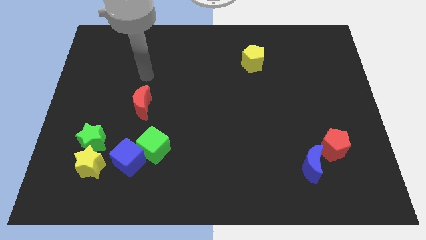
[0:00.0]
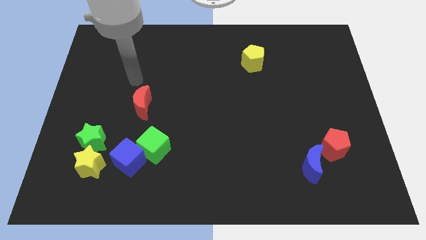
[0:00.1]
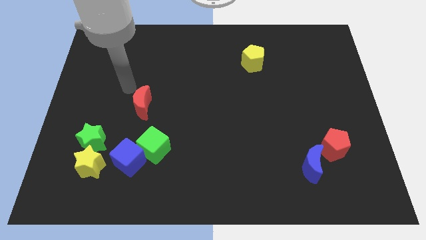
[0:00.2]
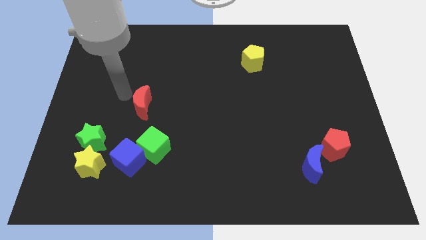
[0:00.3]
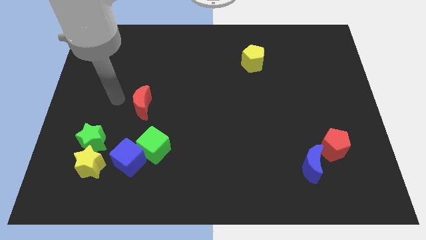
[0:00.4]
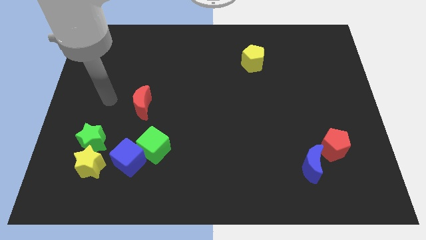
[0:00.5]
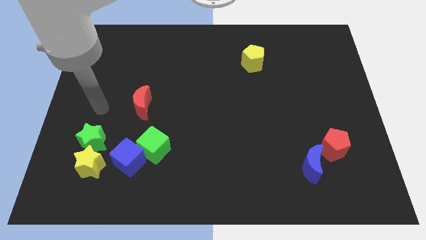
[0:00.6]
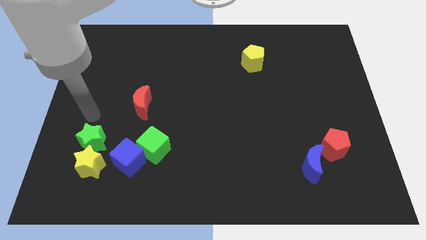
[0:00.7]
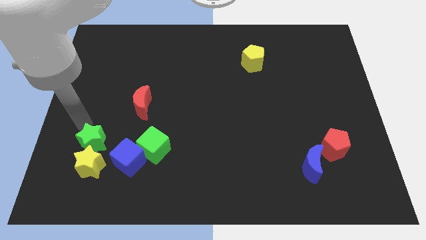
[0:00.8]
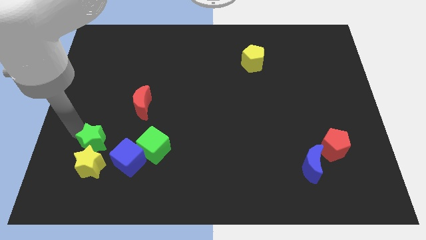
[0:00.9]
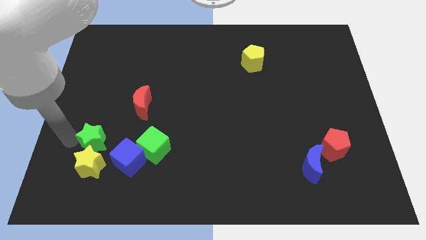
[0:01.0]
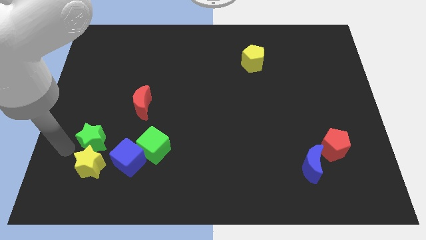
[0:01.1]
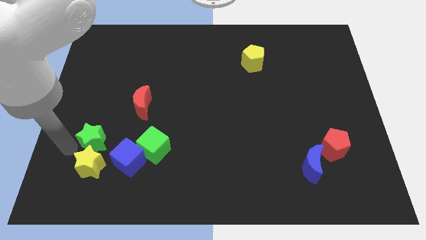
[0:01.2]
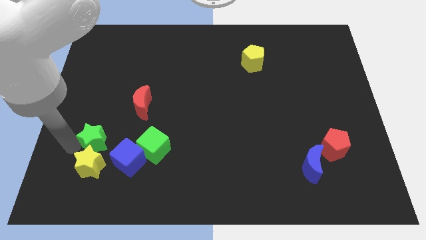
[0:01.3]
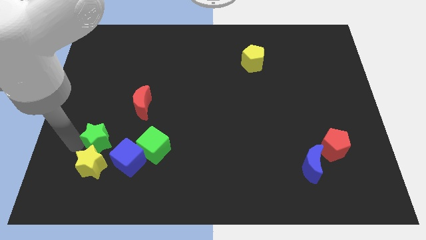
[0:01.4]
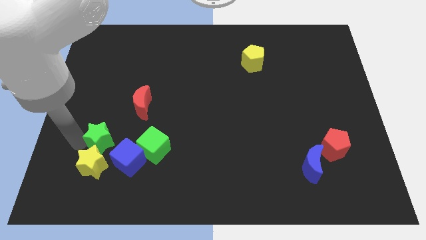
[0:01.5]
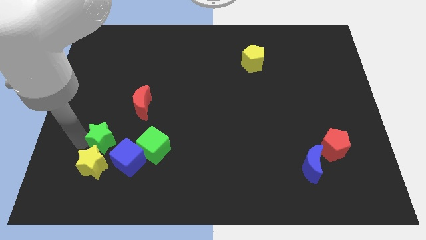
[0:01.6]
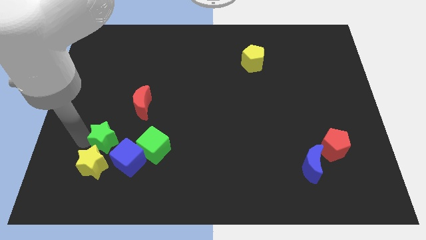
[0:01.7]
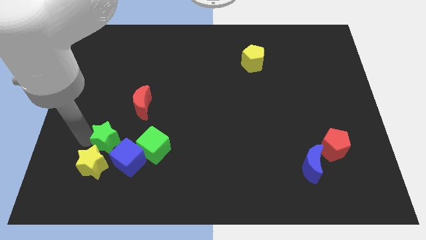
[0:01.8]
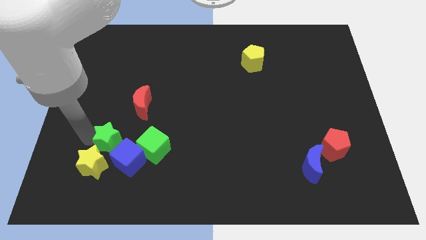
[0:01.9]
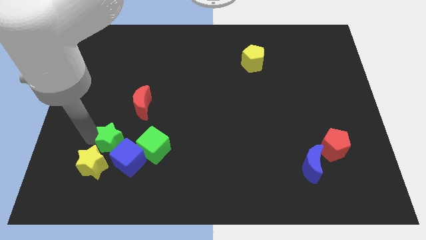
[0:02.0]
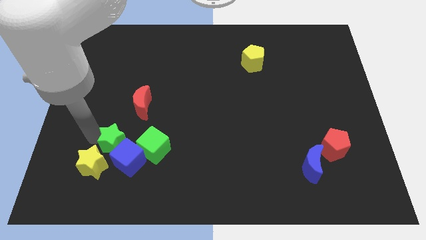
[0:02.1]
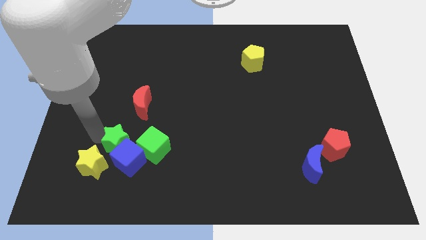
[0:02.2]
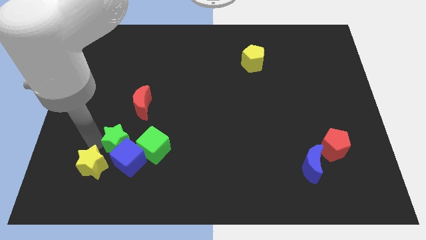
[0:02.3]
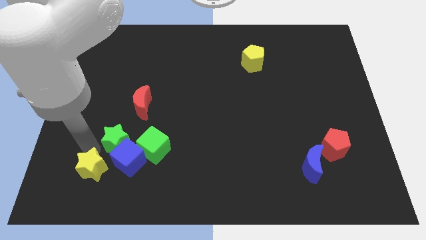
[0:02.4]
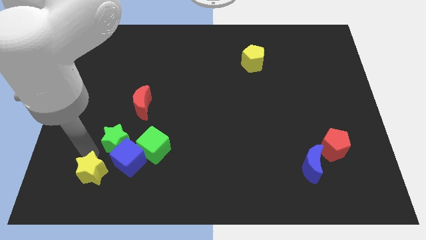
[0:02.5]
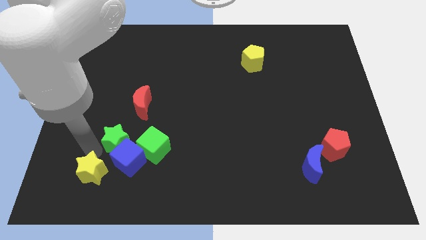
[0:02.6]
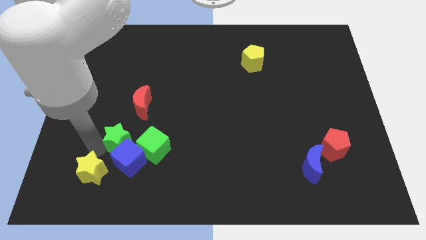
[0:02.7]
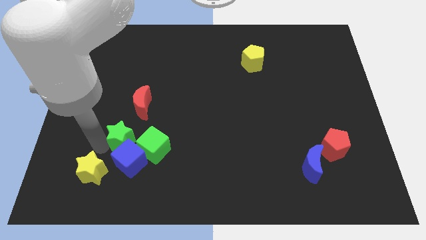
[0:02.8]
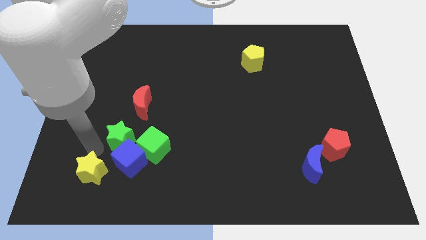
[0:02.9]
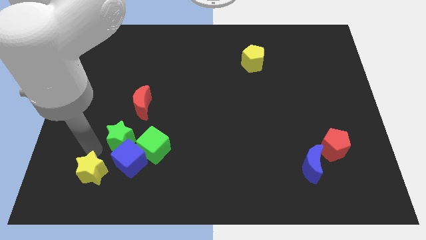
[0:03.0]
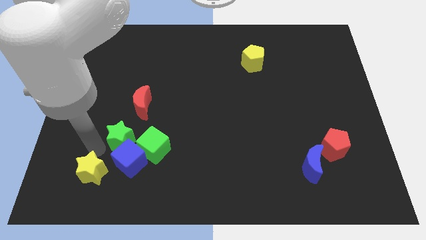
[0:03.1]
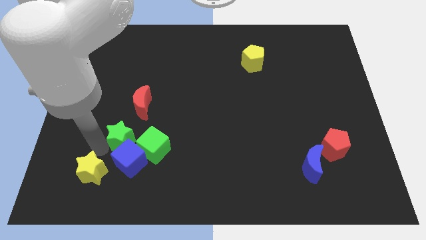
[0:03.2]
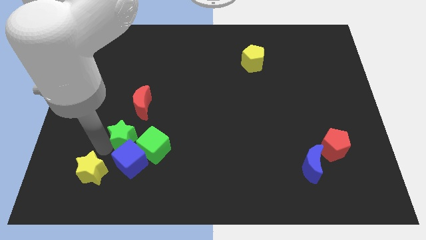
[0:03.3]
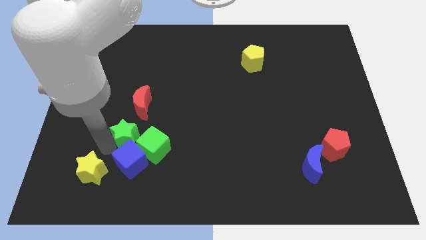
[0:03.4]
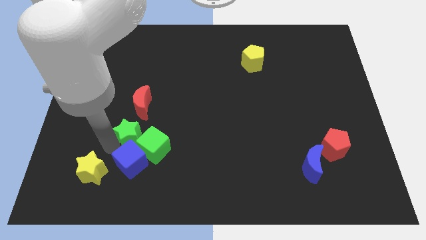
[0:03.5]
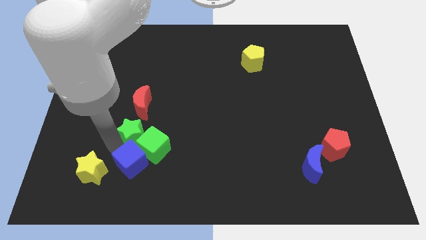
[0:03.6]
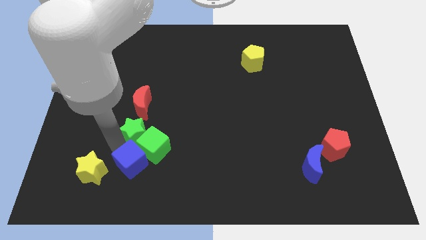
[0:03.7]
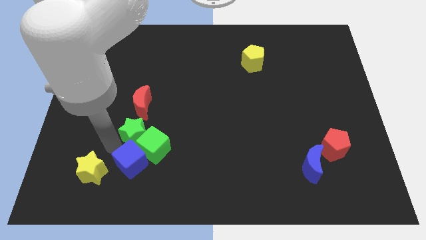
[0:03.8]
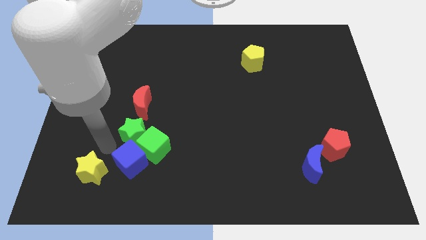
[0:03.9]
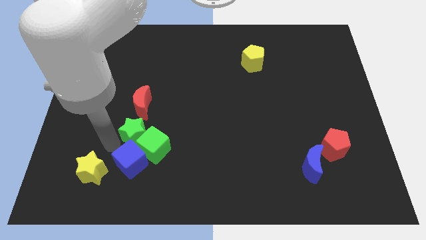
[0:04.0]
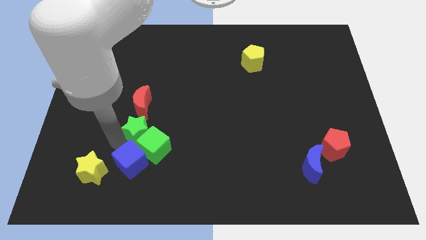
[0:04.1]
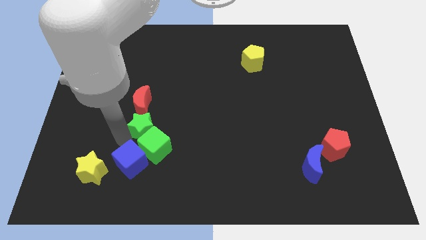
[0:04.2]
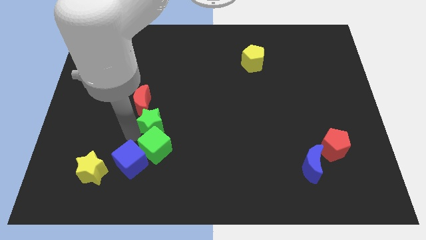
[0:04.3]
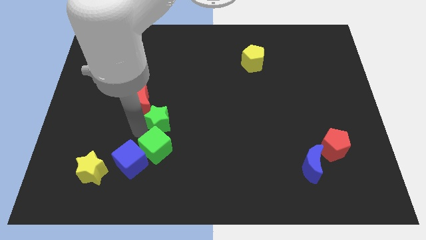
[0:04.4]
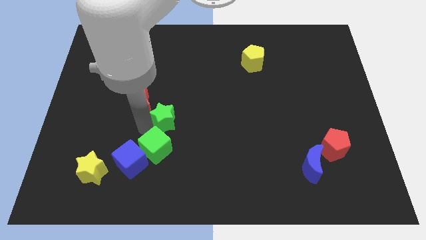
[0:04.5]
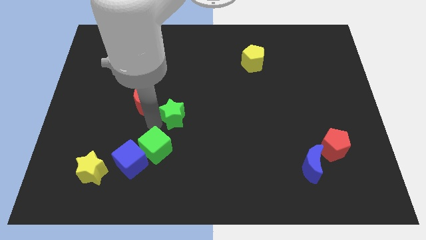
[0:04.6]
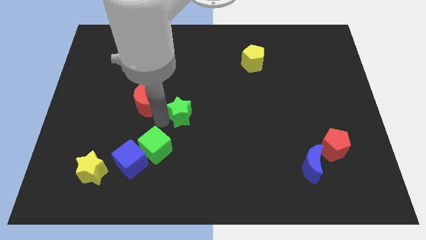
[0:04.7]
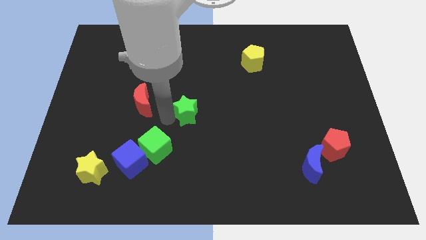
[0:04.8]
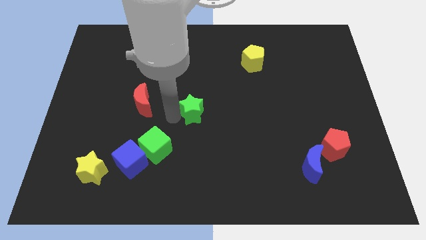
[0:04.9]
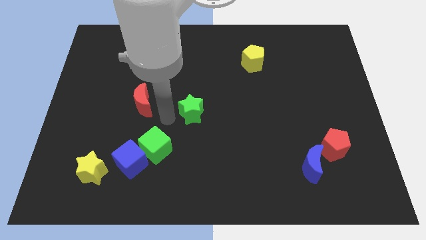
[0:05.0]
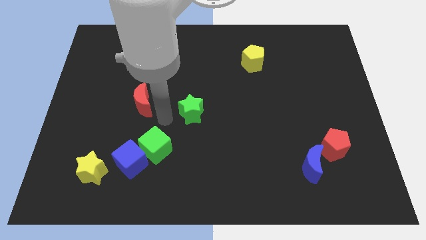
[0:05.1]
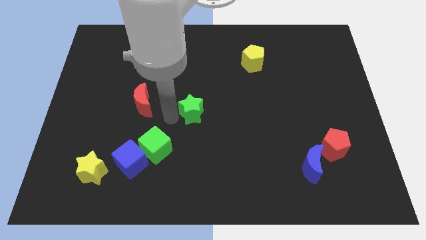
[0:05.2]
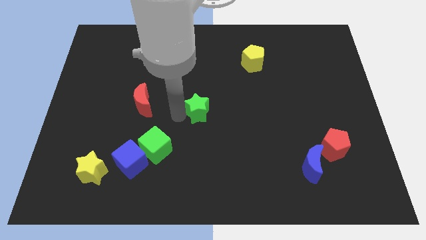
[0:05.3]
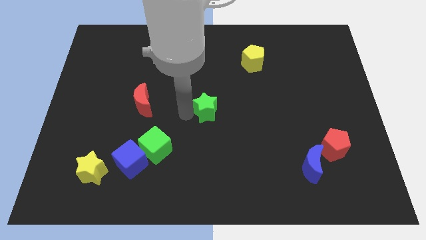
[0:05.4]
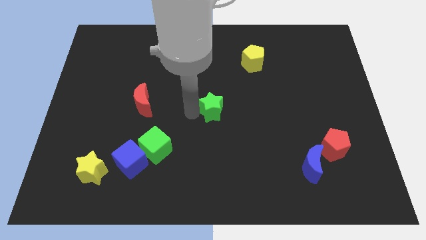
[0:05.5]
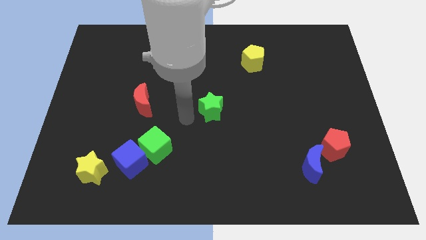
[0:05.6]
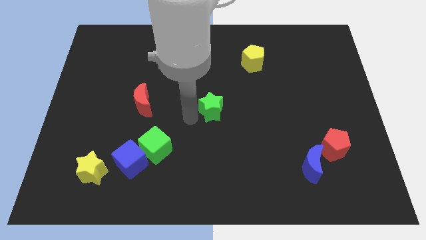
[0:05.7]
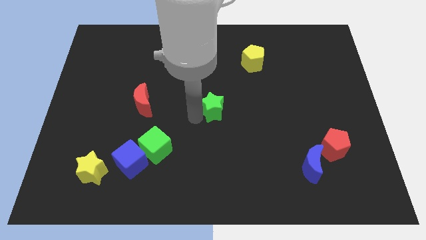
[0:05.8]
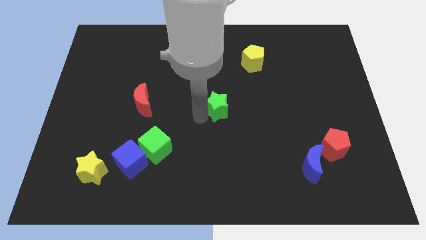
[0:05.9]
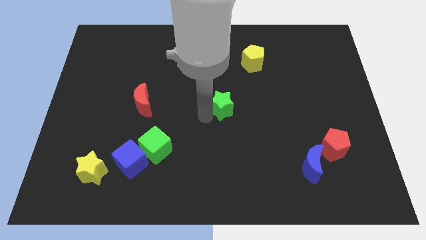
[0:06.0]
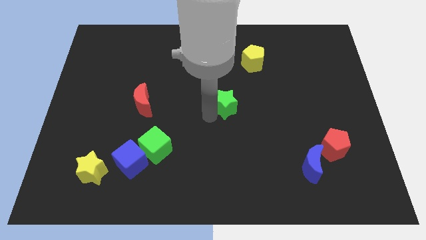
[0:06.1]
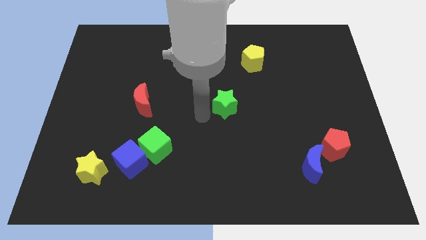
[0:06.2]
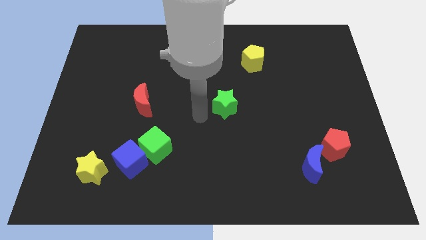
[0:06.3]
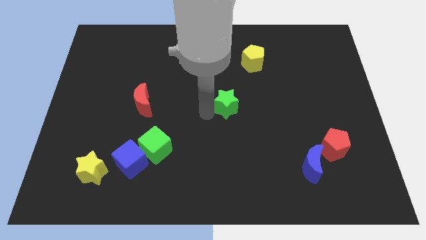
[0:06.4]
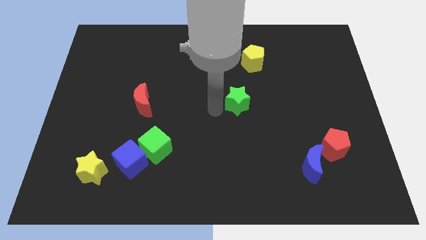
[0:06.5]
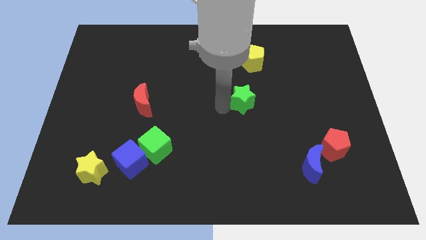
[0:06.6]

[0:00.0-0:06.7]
push the green star to the bottom side of the yellow pentagon

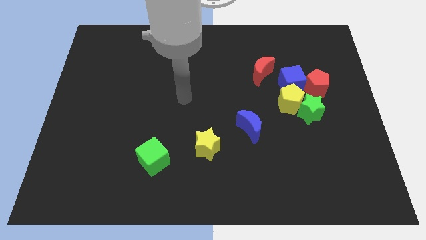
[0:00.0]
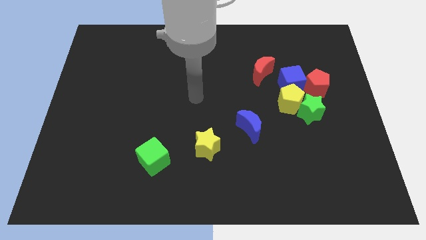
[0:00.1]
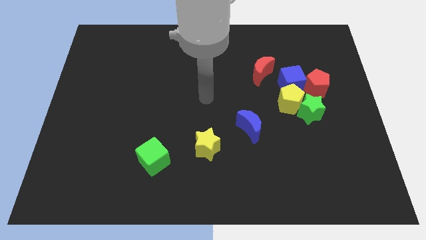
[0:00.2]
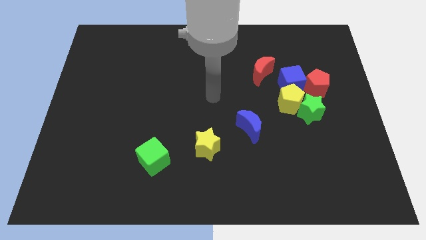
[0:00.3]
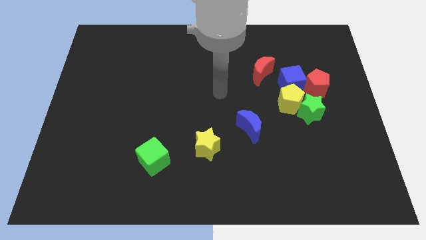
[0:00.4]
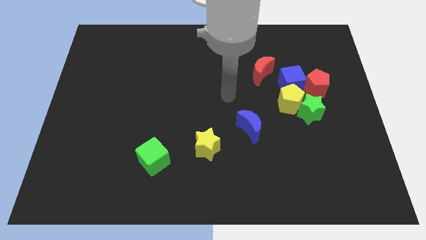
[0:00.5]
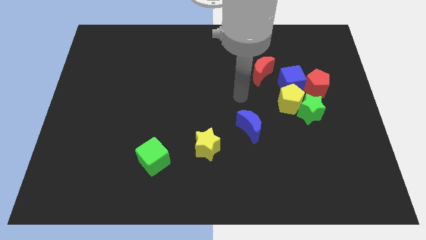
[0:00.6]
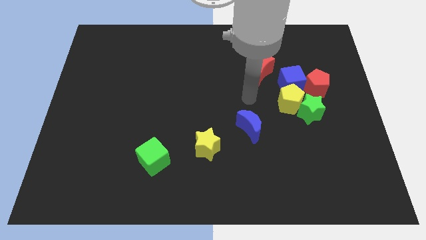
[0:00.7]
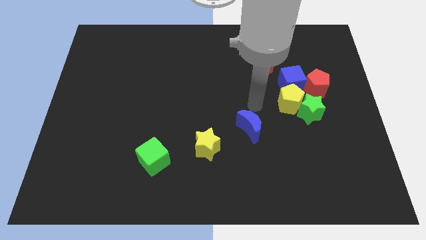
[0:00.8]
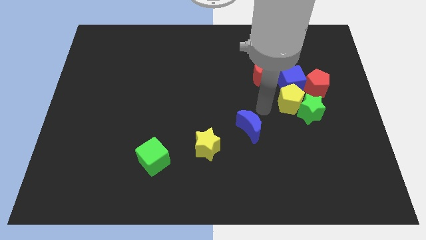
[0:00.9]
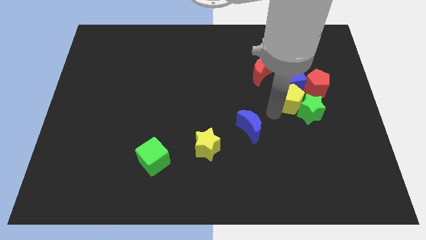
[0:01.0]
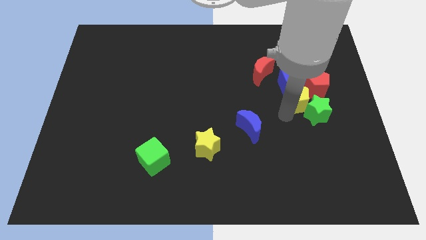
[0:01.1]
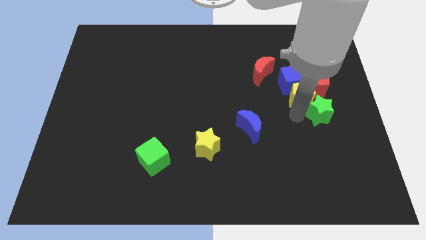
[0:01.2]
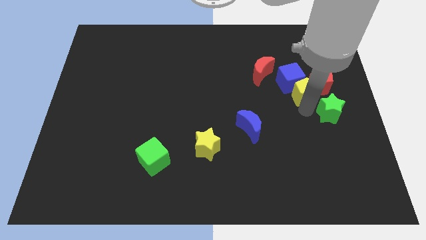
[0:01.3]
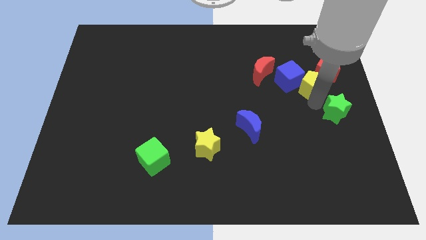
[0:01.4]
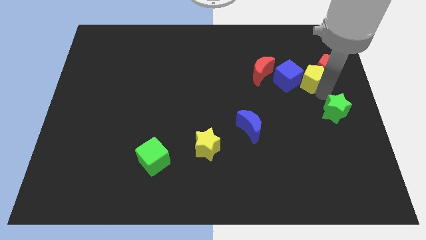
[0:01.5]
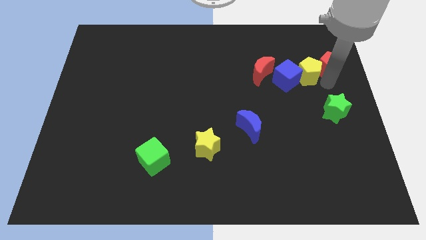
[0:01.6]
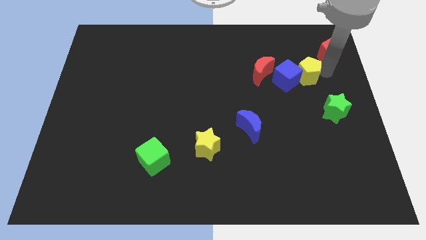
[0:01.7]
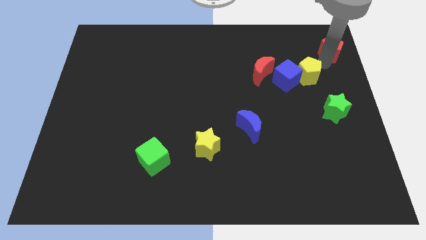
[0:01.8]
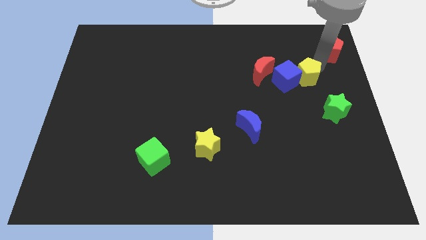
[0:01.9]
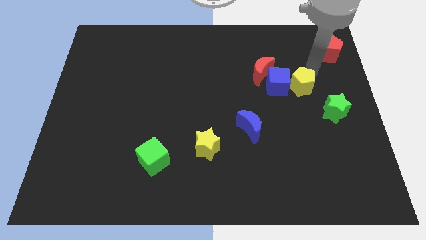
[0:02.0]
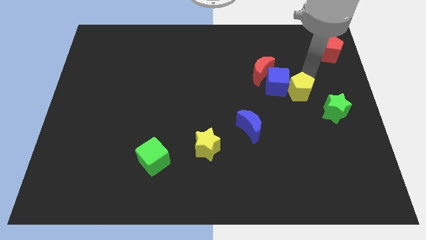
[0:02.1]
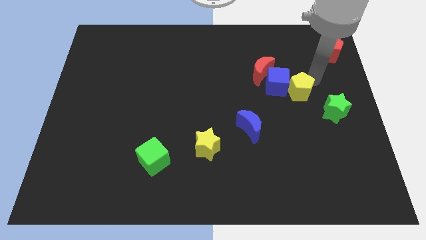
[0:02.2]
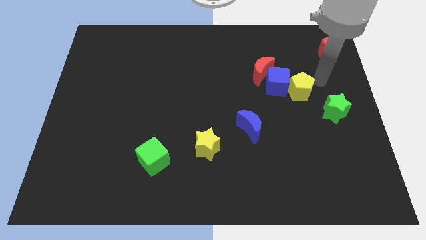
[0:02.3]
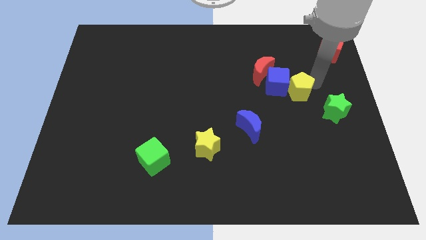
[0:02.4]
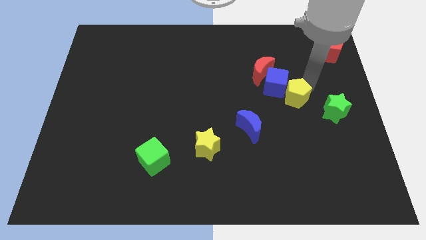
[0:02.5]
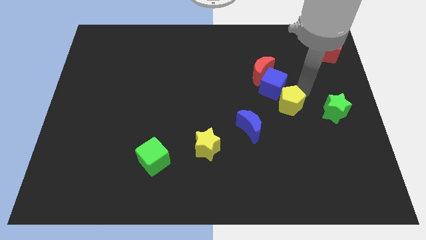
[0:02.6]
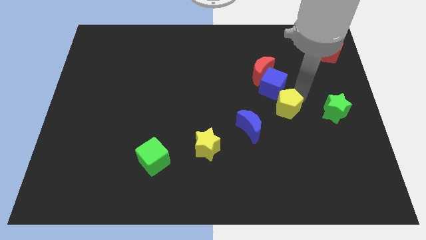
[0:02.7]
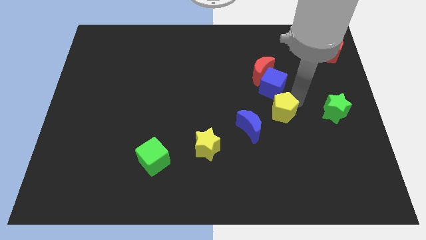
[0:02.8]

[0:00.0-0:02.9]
push the yellow pentagon to the bottom side of the red moon
